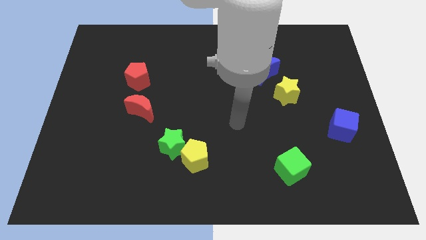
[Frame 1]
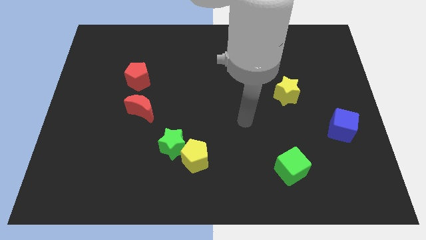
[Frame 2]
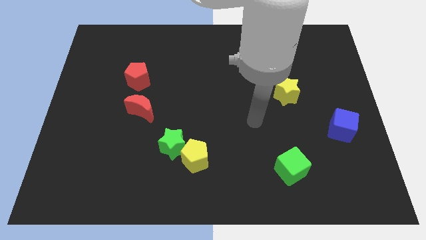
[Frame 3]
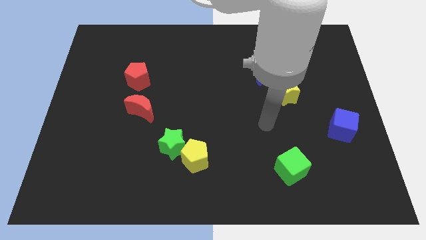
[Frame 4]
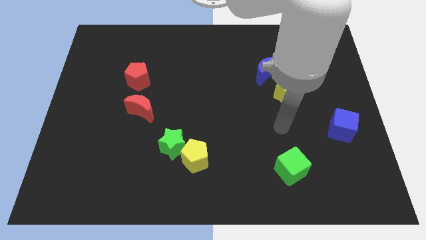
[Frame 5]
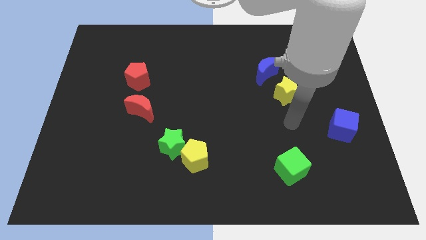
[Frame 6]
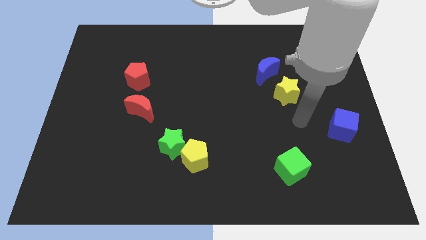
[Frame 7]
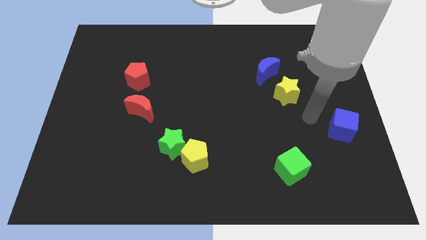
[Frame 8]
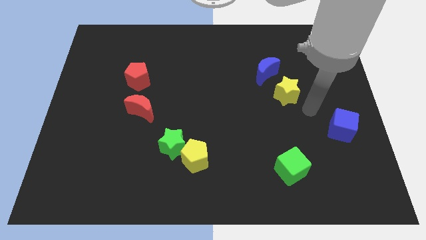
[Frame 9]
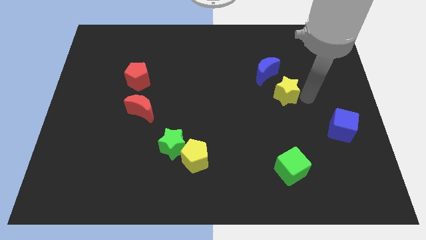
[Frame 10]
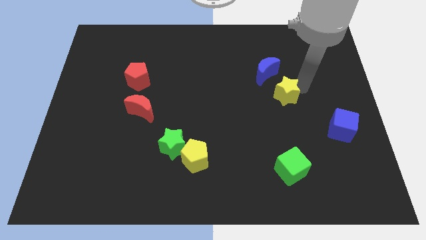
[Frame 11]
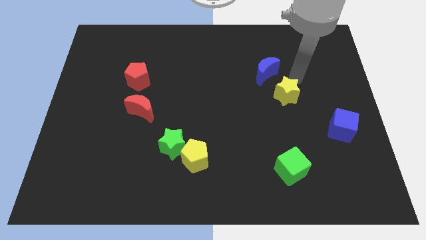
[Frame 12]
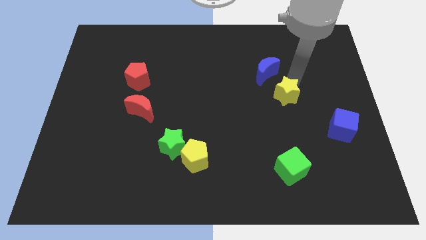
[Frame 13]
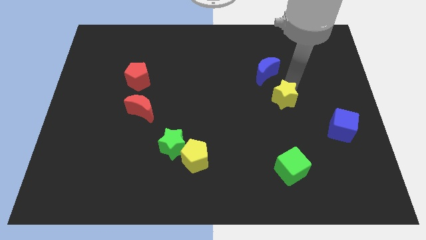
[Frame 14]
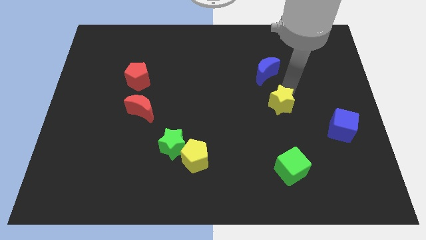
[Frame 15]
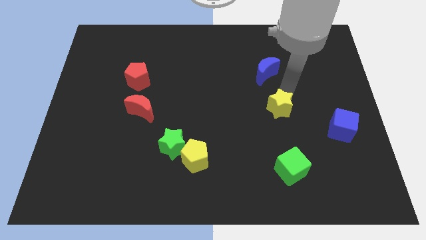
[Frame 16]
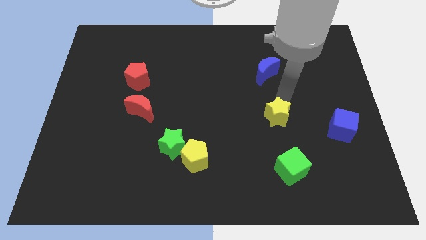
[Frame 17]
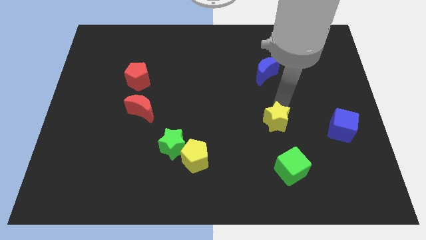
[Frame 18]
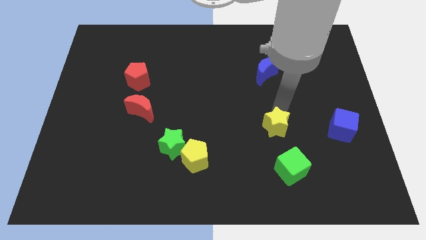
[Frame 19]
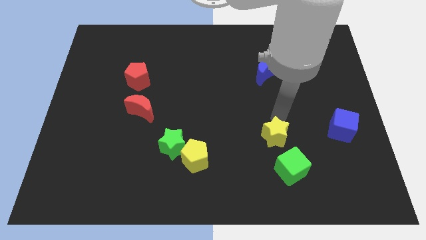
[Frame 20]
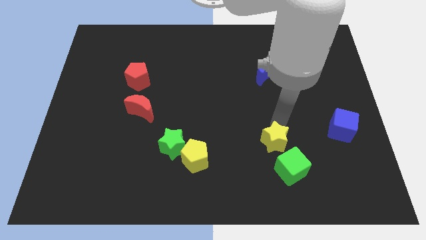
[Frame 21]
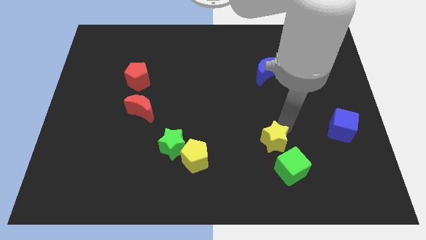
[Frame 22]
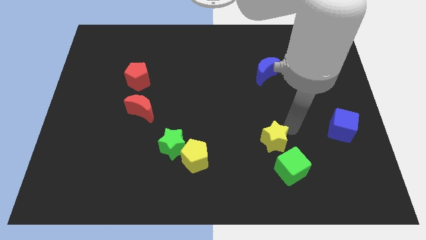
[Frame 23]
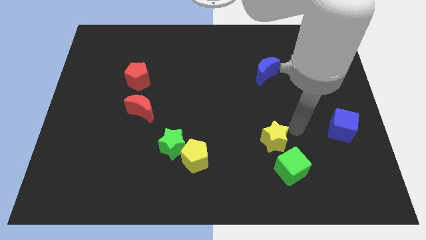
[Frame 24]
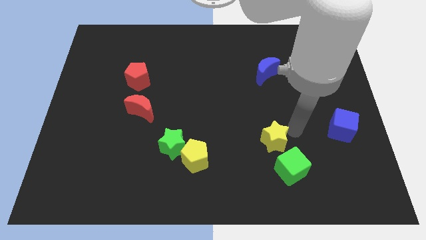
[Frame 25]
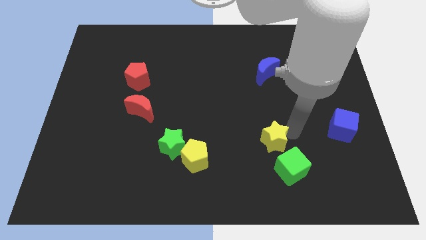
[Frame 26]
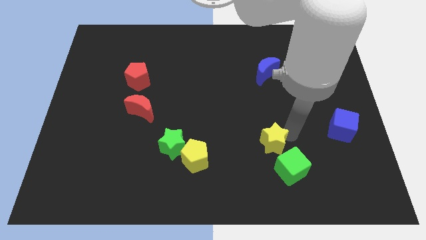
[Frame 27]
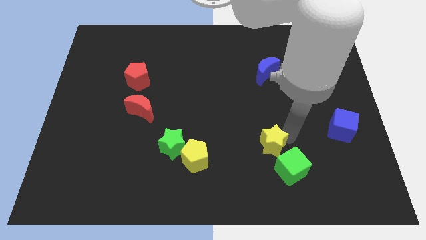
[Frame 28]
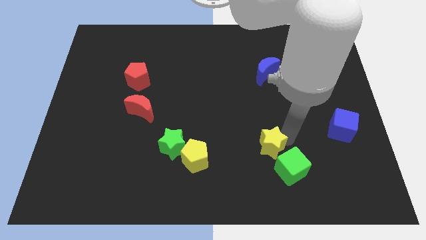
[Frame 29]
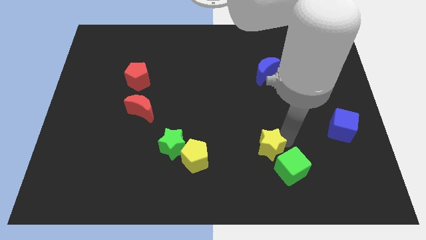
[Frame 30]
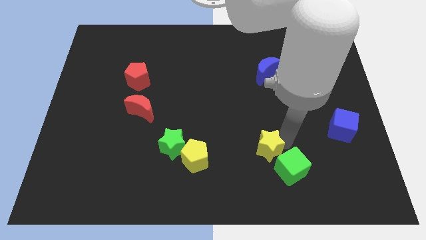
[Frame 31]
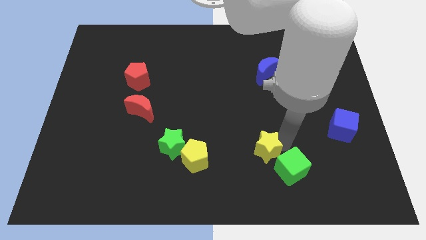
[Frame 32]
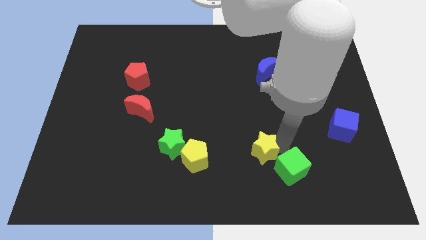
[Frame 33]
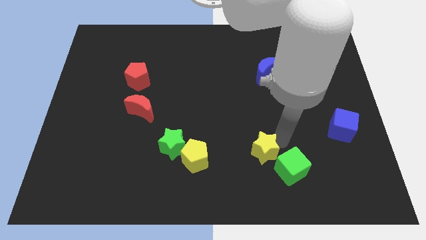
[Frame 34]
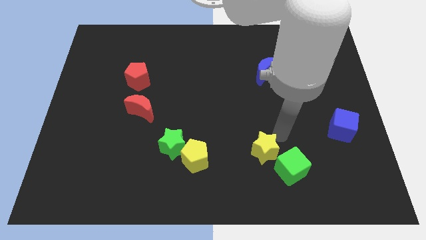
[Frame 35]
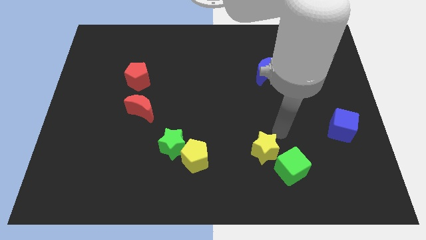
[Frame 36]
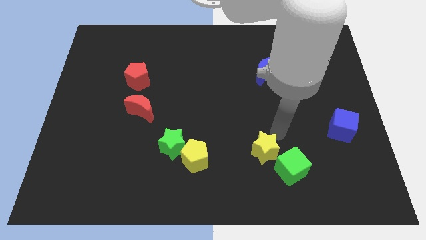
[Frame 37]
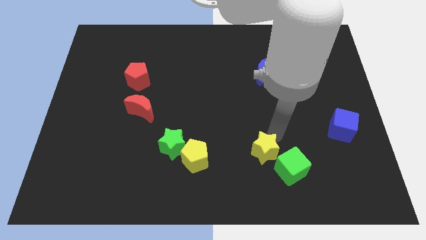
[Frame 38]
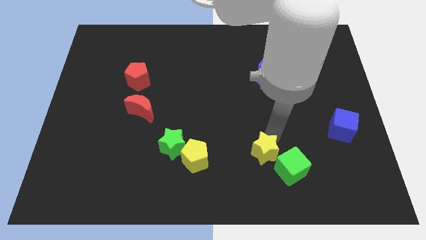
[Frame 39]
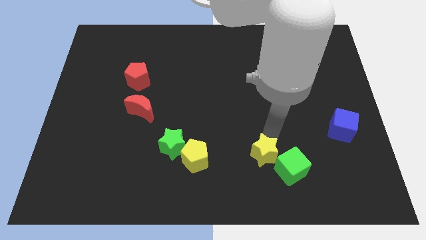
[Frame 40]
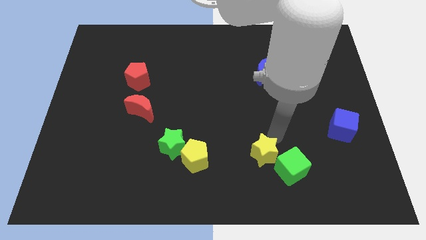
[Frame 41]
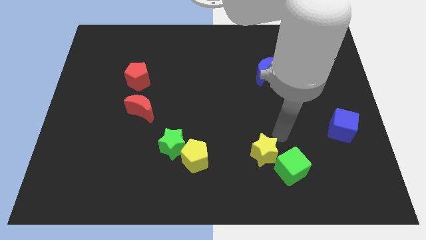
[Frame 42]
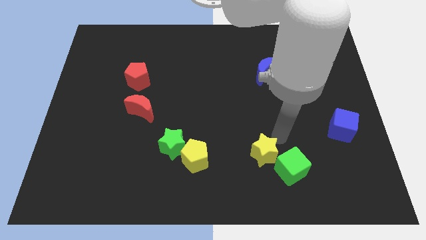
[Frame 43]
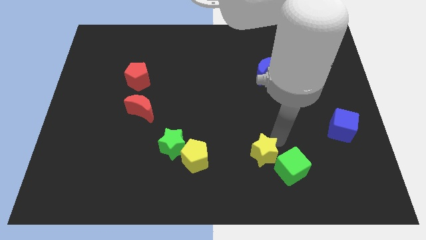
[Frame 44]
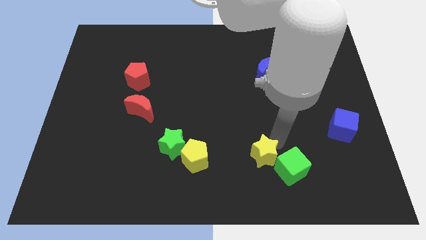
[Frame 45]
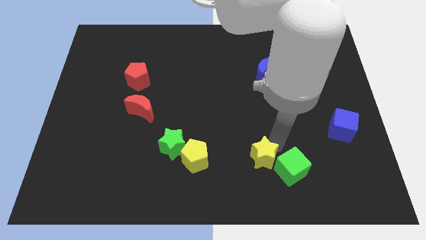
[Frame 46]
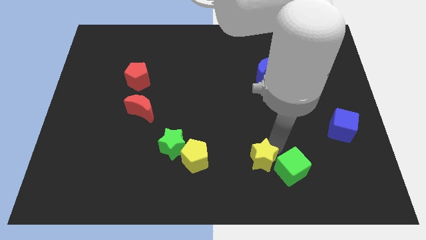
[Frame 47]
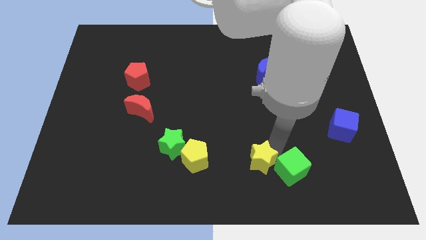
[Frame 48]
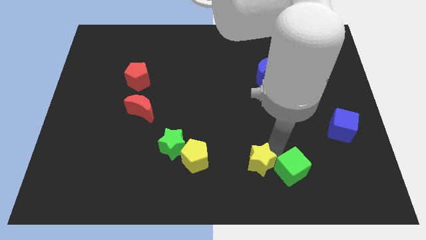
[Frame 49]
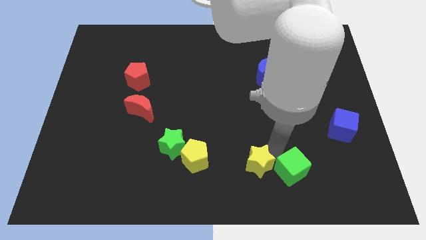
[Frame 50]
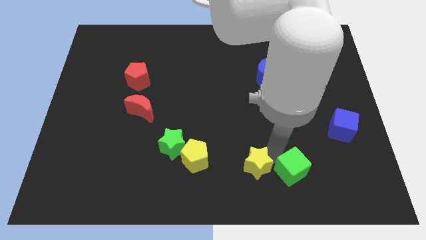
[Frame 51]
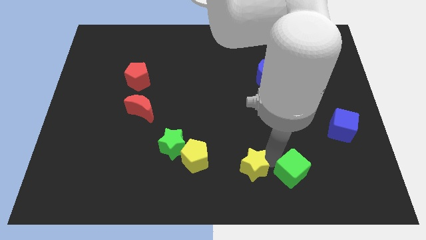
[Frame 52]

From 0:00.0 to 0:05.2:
move the yellow star to the bottom
